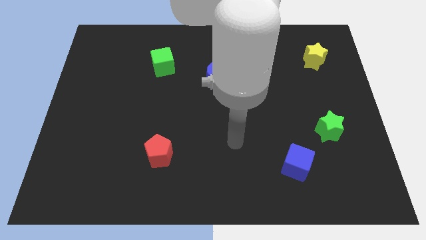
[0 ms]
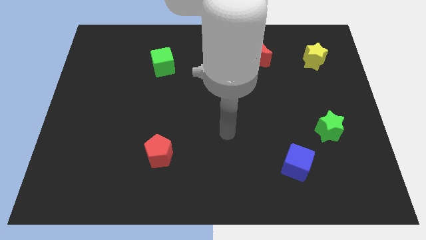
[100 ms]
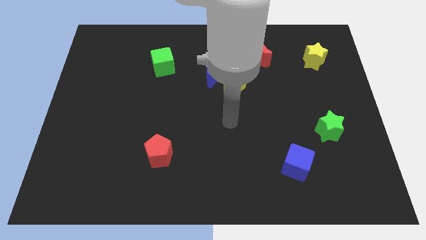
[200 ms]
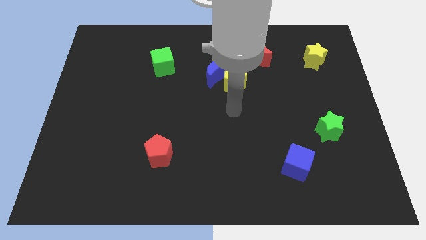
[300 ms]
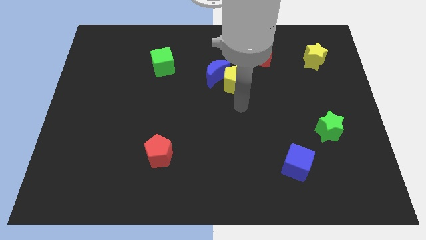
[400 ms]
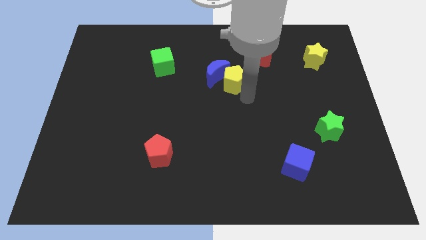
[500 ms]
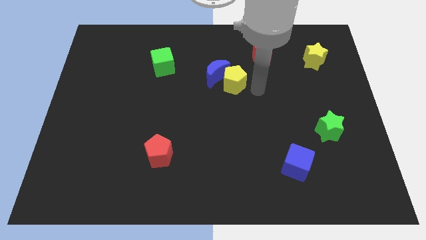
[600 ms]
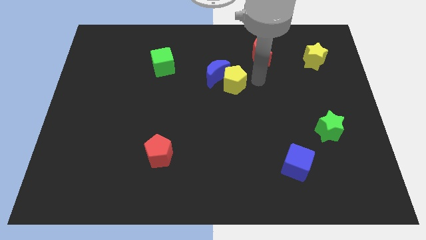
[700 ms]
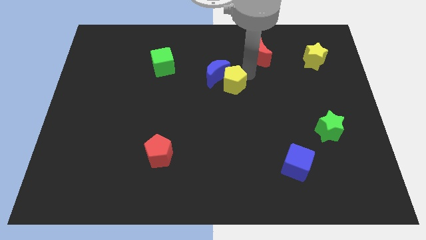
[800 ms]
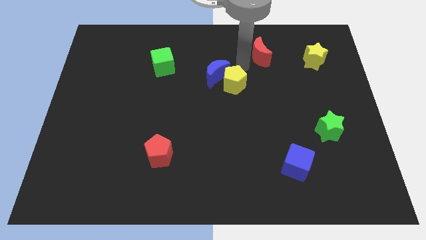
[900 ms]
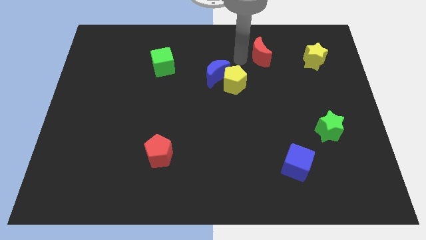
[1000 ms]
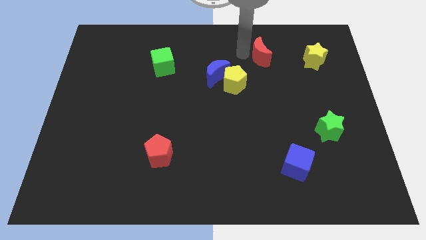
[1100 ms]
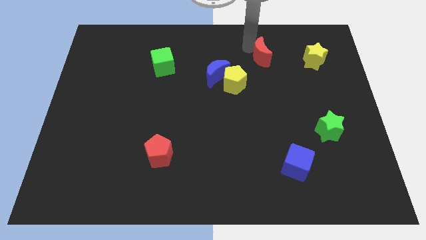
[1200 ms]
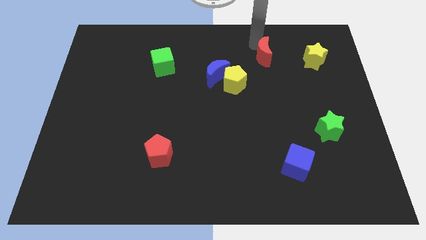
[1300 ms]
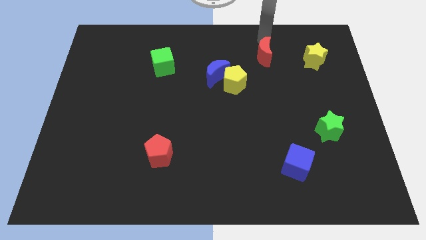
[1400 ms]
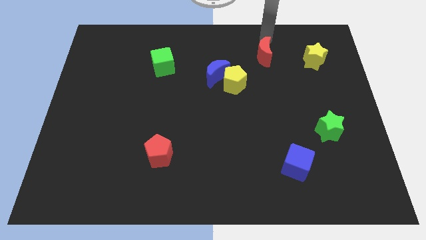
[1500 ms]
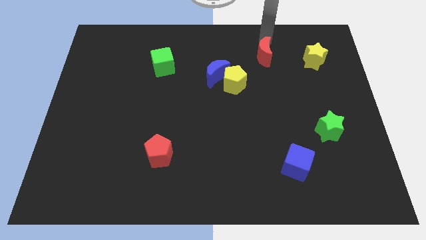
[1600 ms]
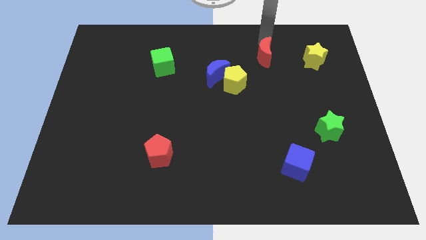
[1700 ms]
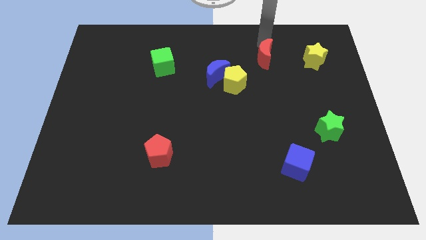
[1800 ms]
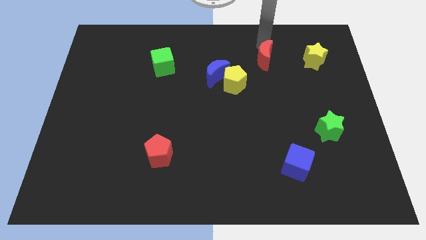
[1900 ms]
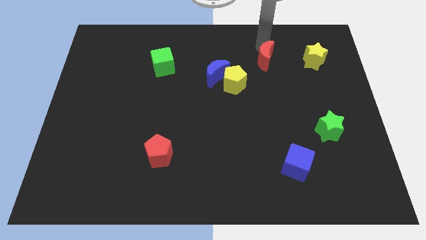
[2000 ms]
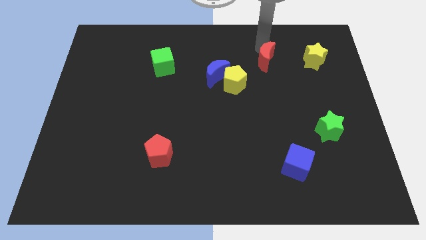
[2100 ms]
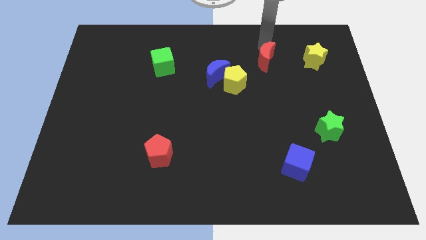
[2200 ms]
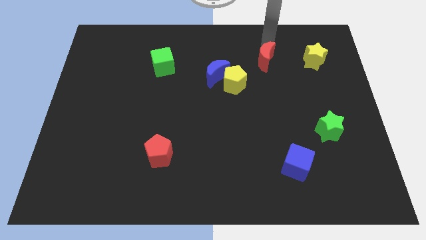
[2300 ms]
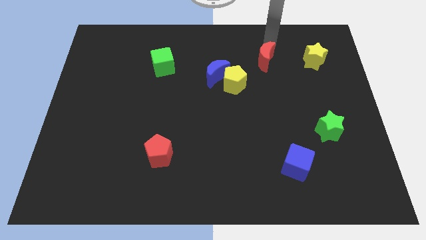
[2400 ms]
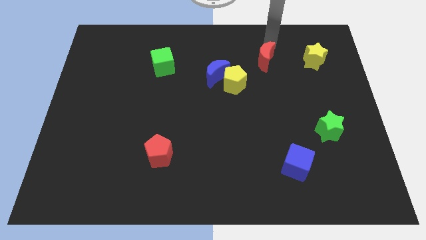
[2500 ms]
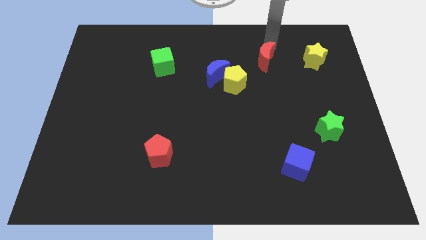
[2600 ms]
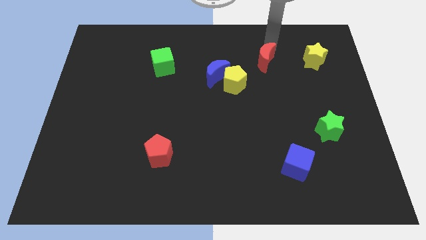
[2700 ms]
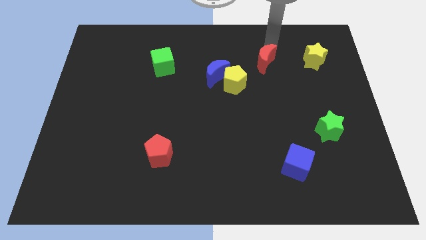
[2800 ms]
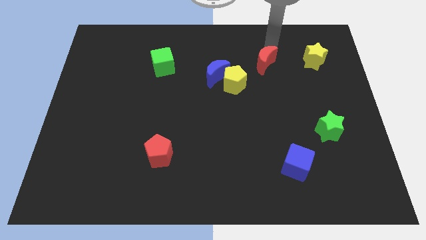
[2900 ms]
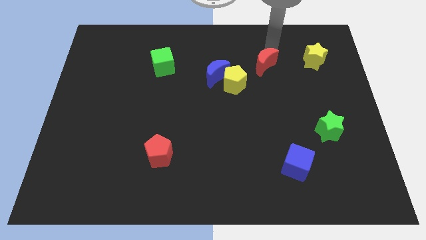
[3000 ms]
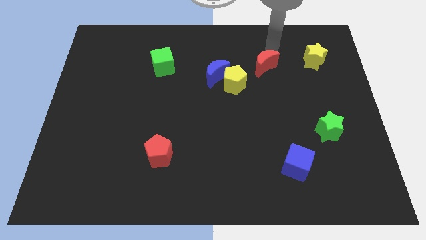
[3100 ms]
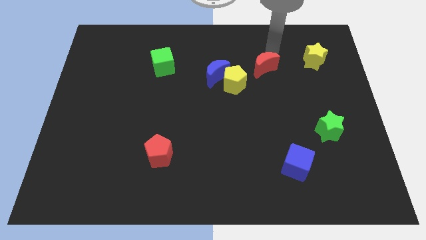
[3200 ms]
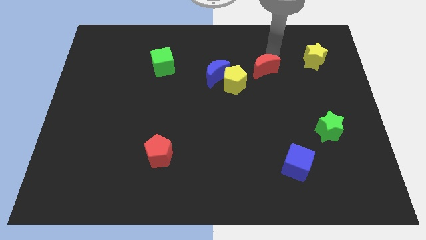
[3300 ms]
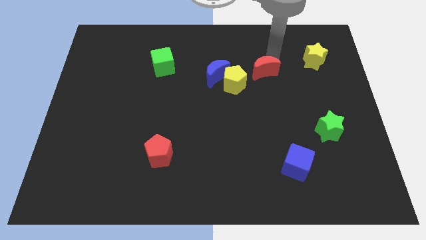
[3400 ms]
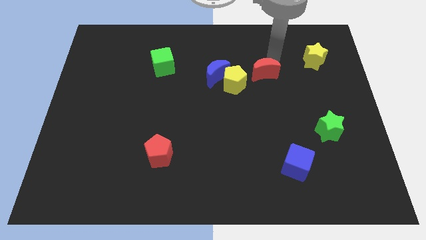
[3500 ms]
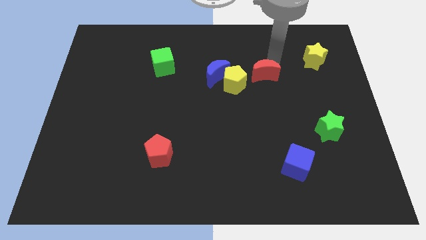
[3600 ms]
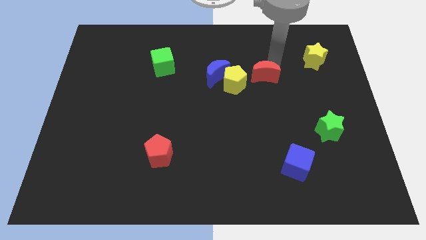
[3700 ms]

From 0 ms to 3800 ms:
slightly slide the red moon down

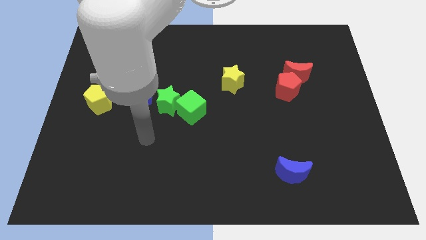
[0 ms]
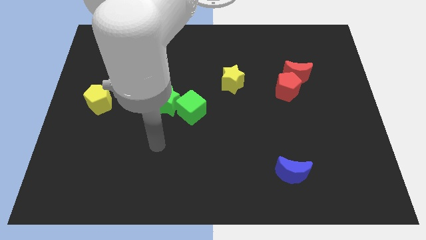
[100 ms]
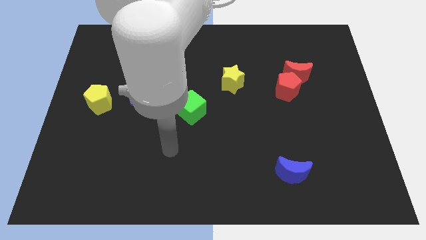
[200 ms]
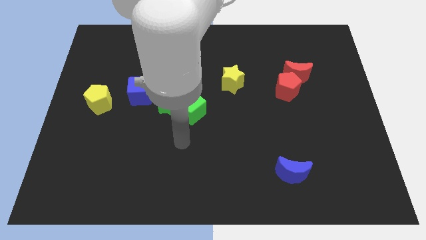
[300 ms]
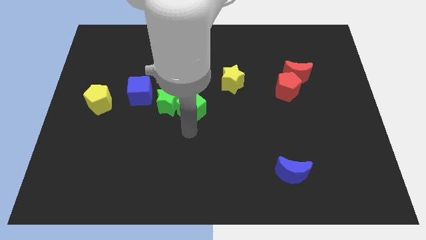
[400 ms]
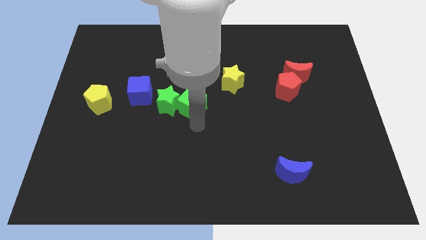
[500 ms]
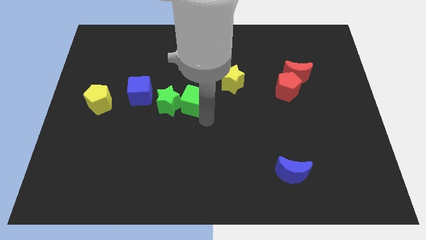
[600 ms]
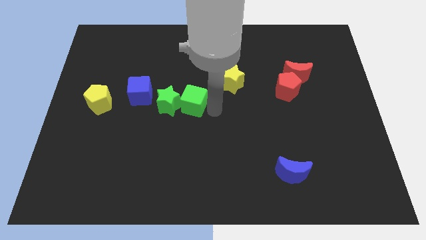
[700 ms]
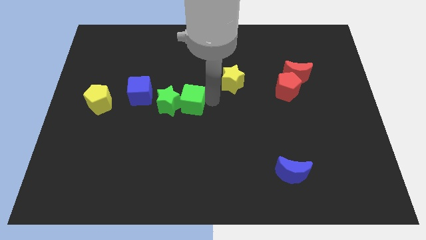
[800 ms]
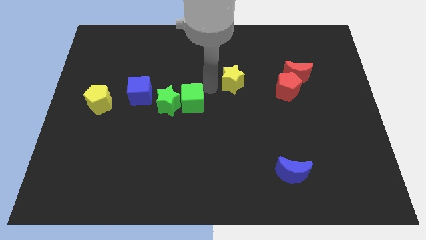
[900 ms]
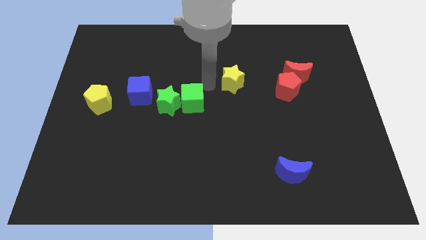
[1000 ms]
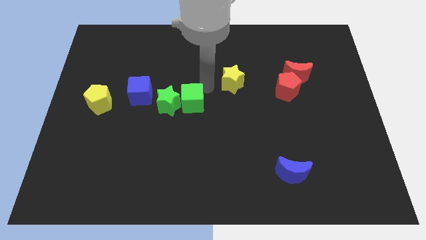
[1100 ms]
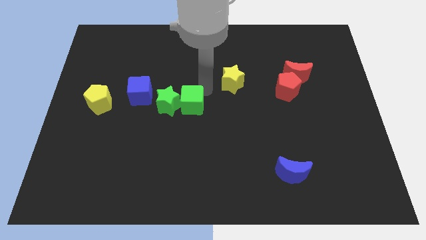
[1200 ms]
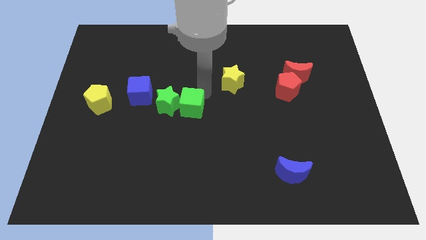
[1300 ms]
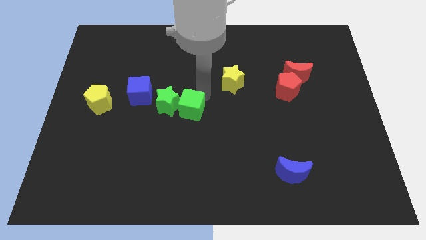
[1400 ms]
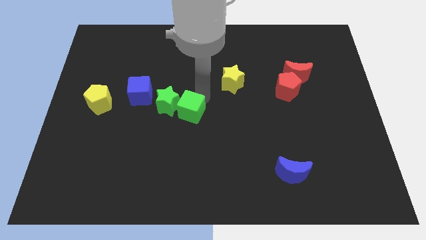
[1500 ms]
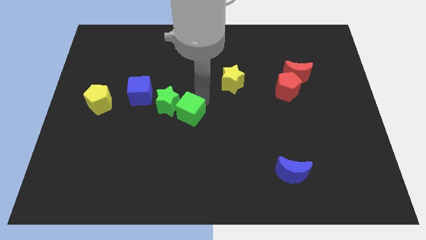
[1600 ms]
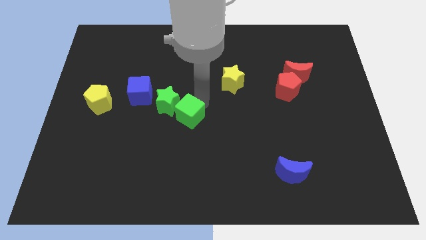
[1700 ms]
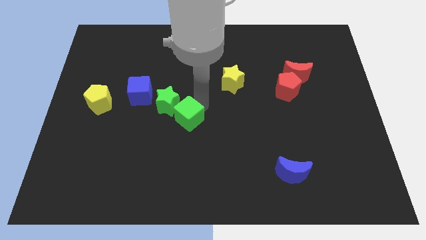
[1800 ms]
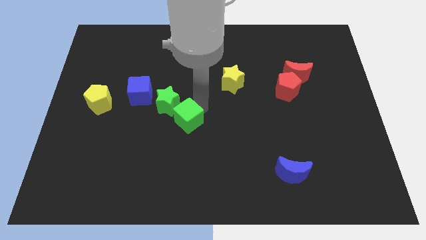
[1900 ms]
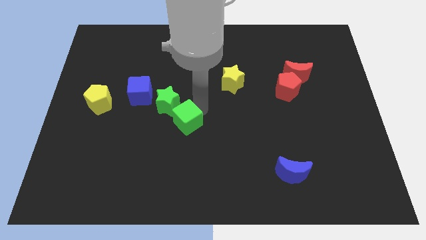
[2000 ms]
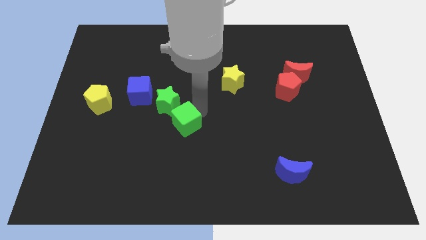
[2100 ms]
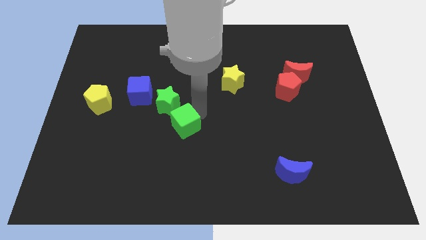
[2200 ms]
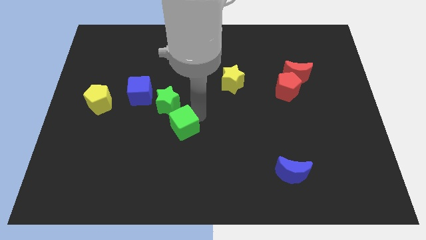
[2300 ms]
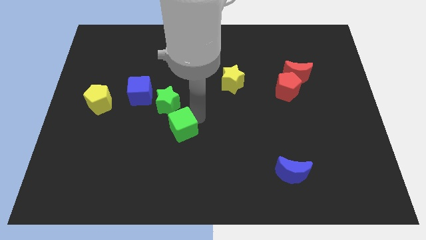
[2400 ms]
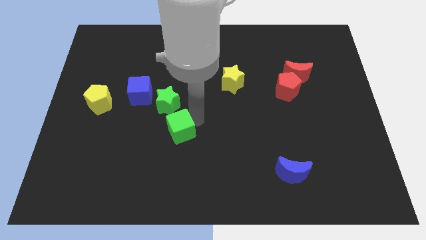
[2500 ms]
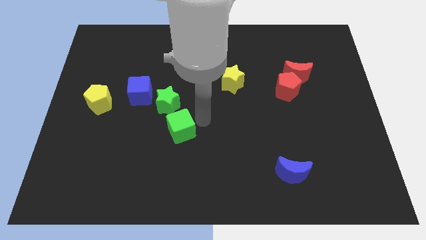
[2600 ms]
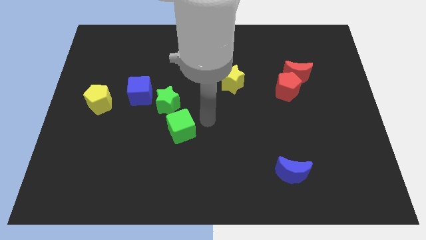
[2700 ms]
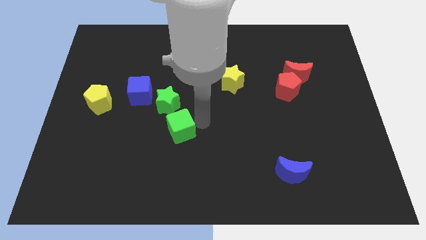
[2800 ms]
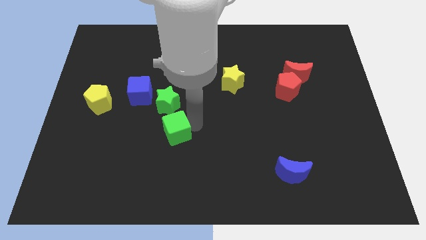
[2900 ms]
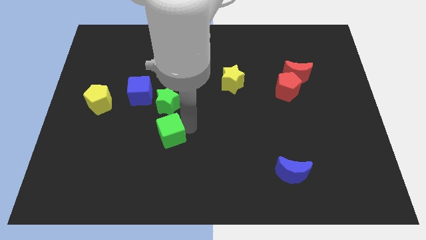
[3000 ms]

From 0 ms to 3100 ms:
slightly move the green cube downwards and left diagonally

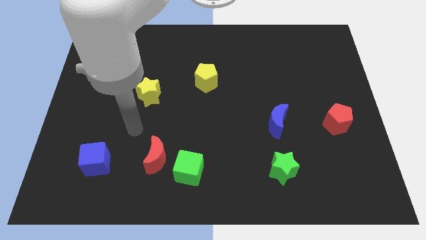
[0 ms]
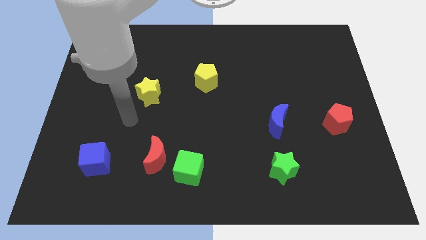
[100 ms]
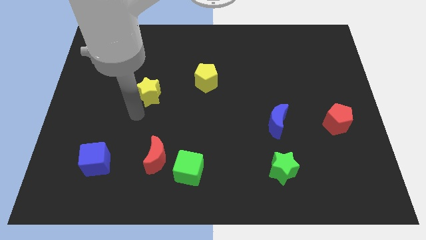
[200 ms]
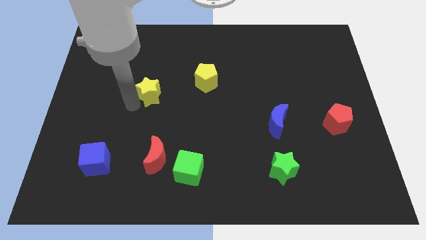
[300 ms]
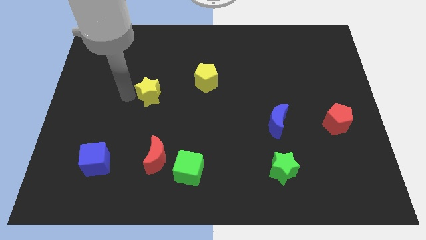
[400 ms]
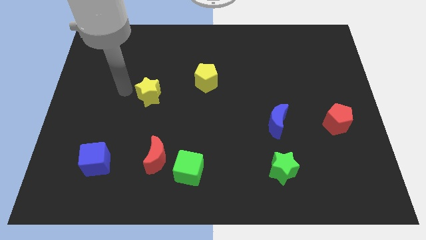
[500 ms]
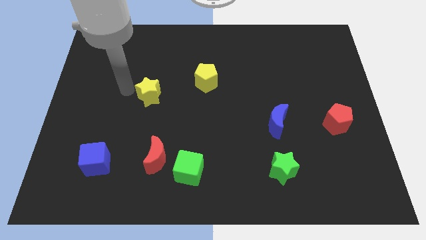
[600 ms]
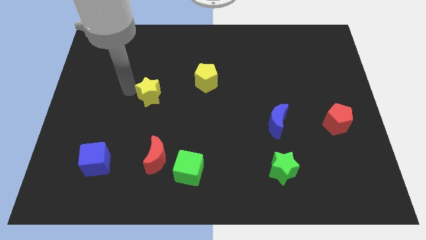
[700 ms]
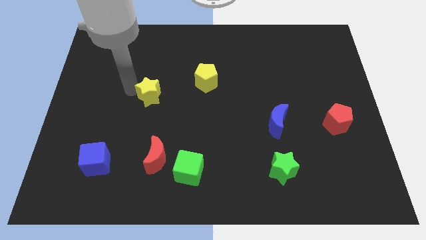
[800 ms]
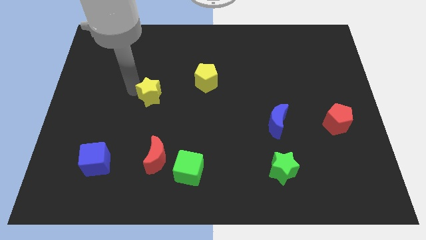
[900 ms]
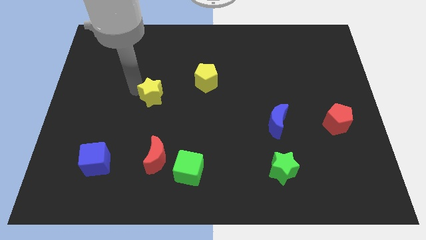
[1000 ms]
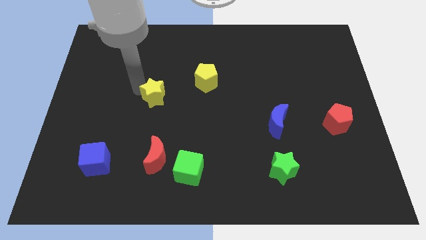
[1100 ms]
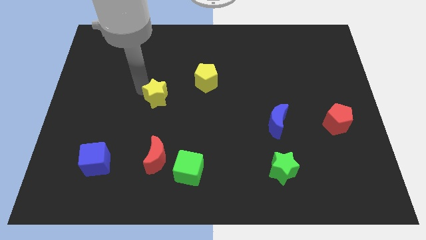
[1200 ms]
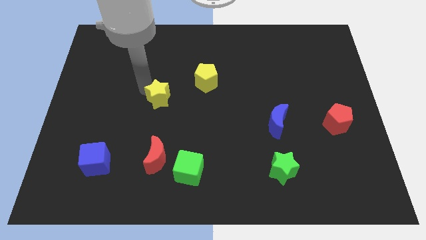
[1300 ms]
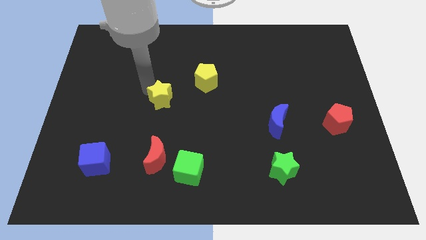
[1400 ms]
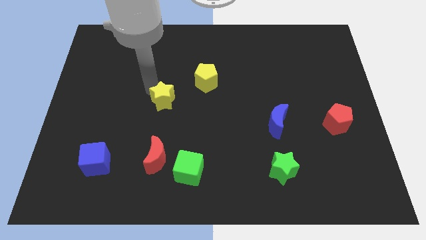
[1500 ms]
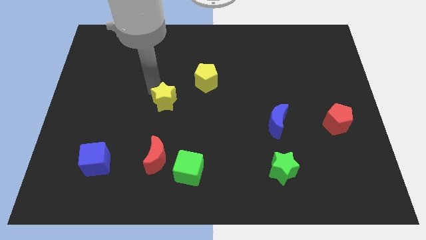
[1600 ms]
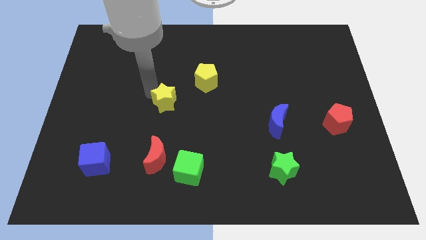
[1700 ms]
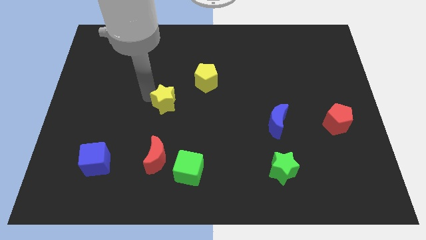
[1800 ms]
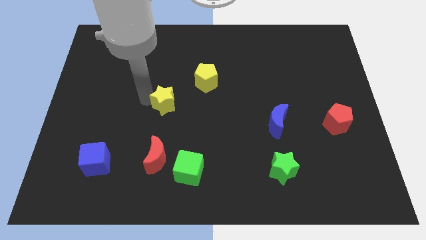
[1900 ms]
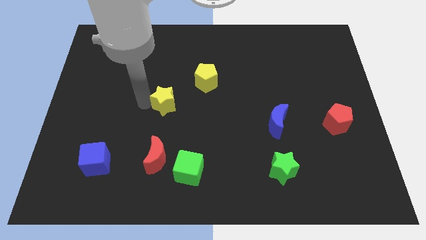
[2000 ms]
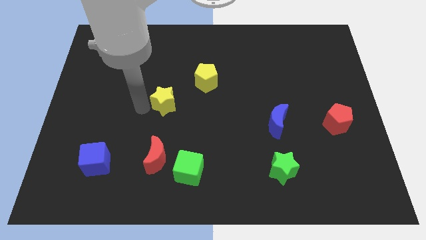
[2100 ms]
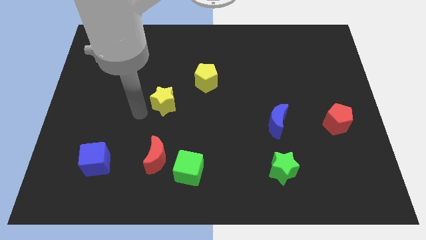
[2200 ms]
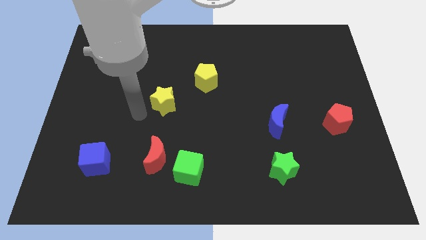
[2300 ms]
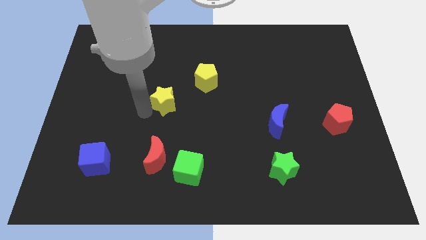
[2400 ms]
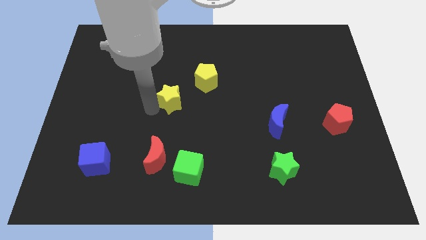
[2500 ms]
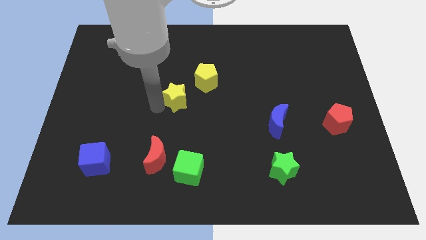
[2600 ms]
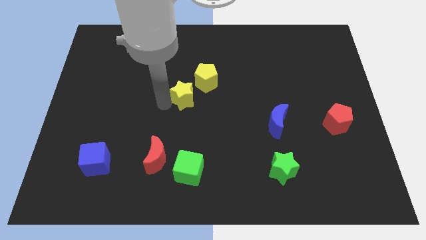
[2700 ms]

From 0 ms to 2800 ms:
slightly slide the yellow star right
